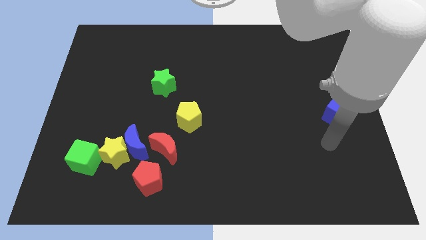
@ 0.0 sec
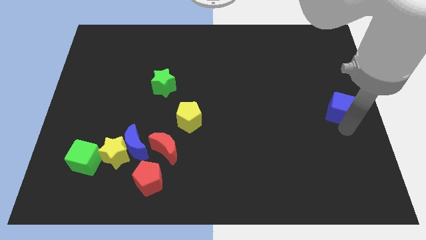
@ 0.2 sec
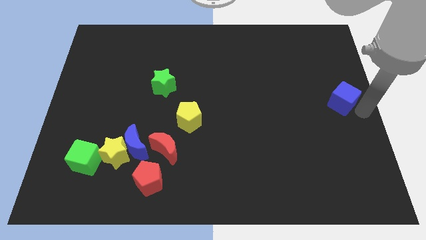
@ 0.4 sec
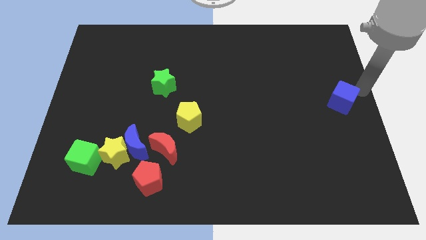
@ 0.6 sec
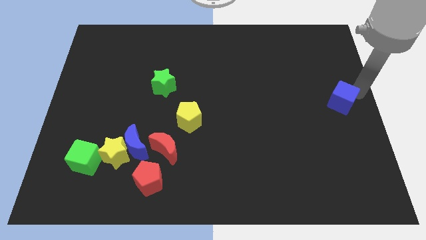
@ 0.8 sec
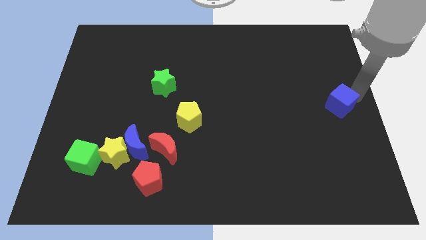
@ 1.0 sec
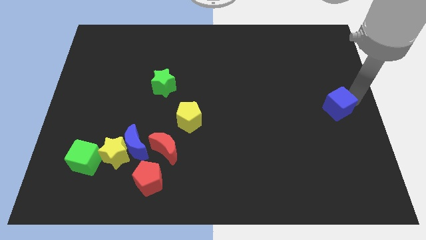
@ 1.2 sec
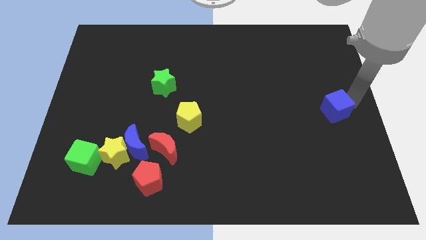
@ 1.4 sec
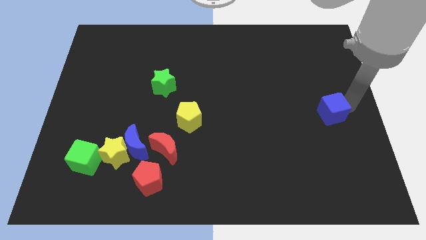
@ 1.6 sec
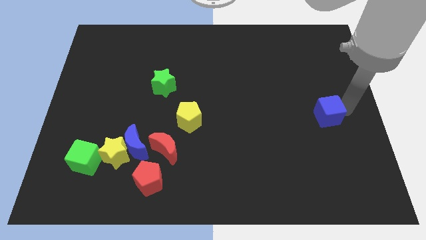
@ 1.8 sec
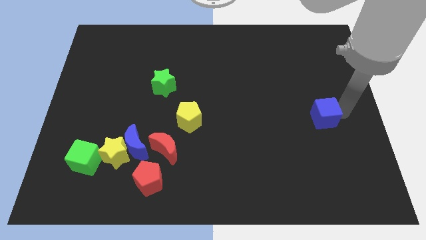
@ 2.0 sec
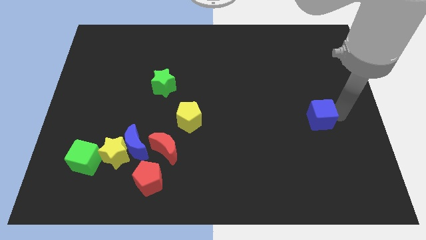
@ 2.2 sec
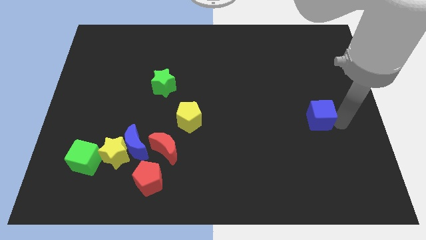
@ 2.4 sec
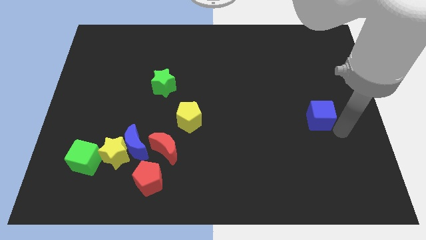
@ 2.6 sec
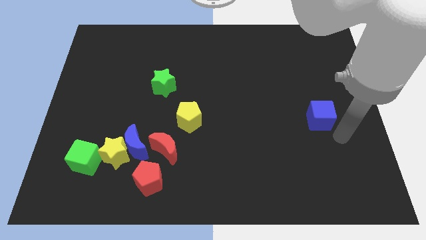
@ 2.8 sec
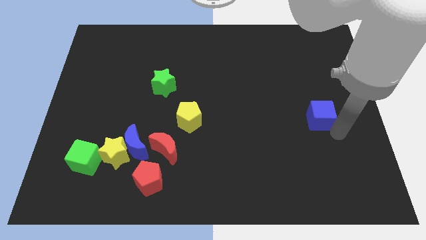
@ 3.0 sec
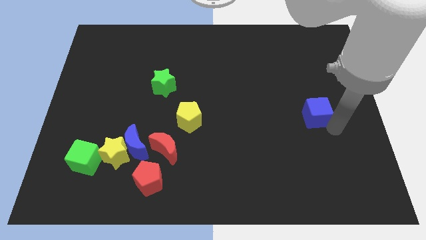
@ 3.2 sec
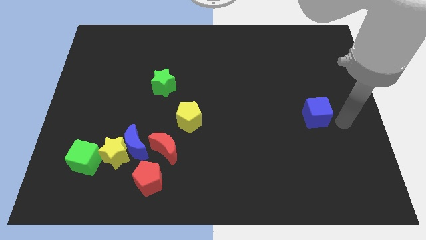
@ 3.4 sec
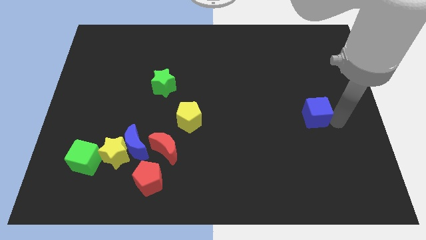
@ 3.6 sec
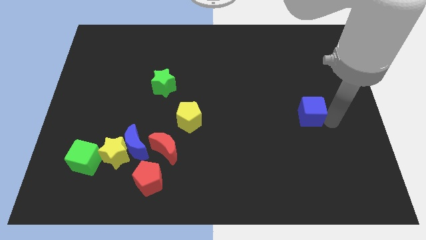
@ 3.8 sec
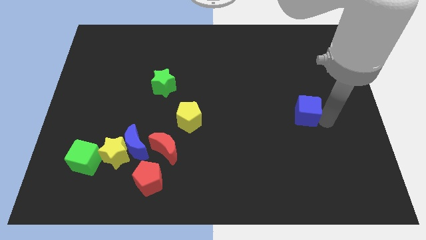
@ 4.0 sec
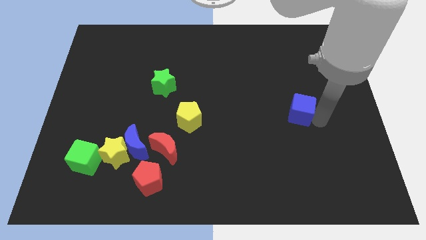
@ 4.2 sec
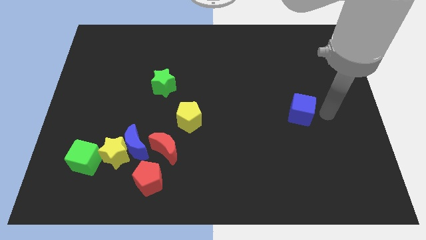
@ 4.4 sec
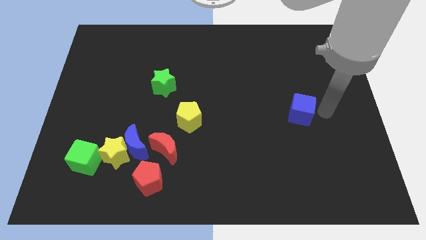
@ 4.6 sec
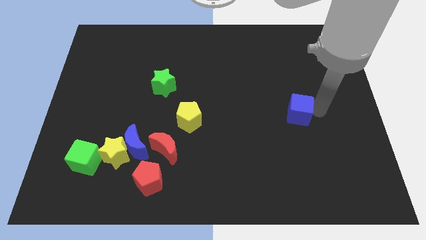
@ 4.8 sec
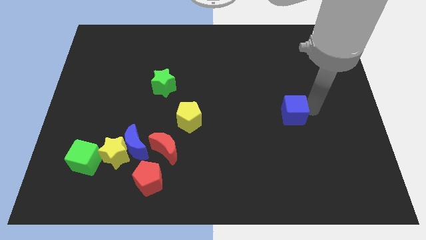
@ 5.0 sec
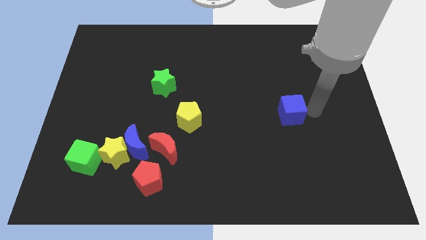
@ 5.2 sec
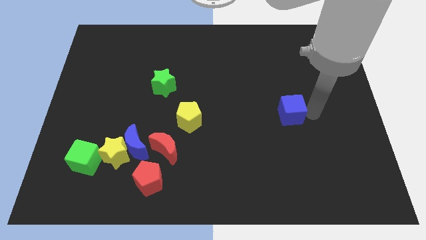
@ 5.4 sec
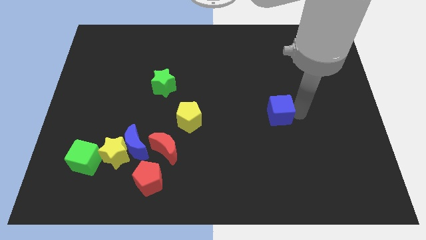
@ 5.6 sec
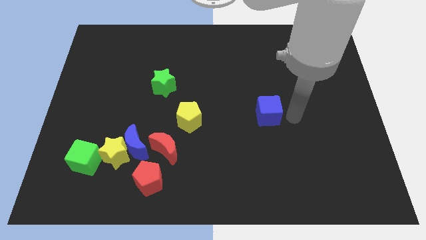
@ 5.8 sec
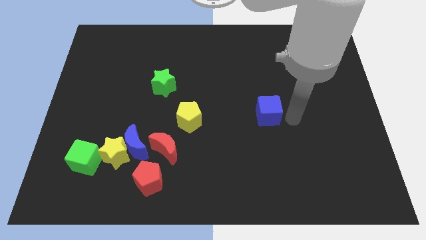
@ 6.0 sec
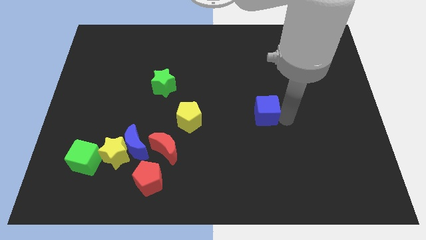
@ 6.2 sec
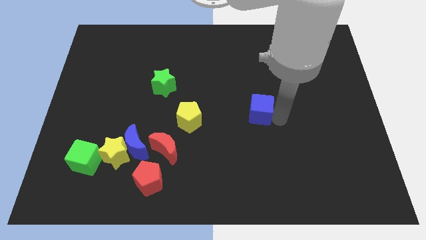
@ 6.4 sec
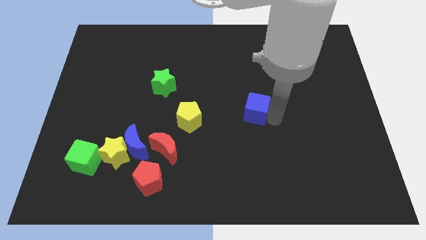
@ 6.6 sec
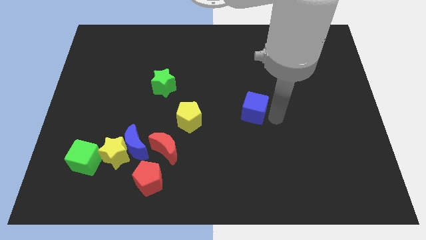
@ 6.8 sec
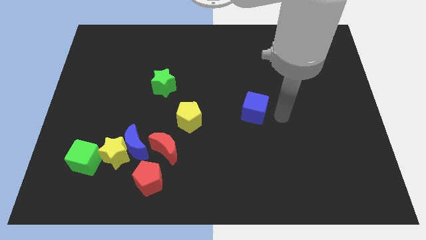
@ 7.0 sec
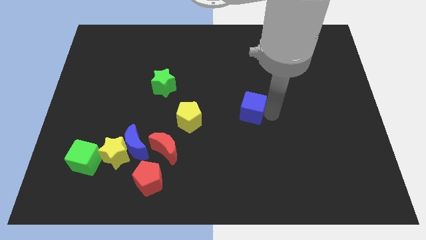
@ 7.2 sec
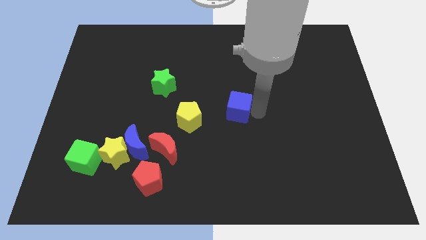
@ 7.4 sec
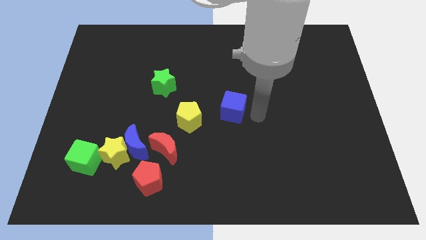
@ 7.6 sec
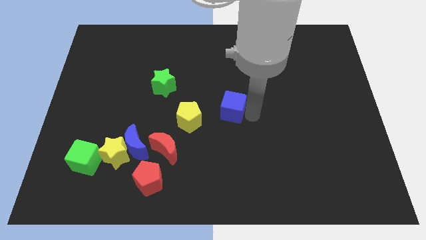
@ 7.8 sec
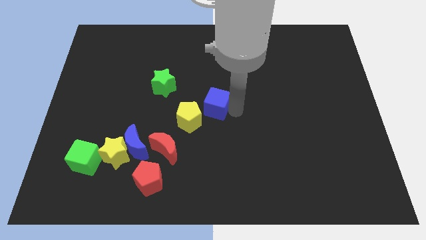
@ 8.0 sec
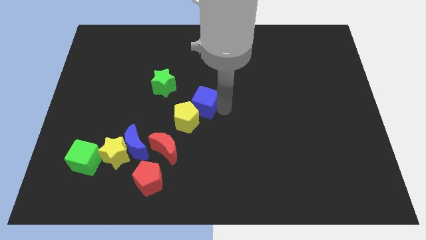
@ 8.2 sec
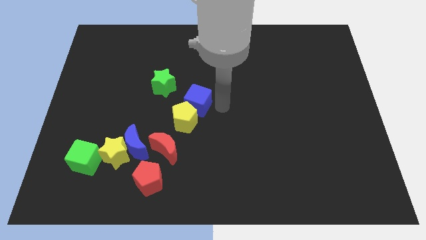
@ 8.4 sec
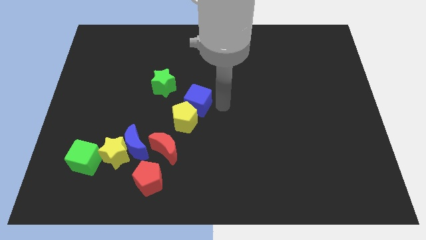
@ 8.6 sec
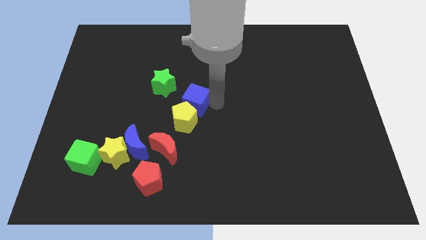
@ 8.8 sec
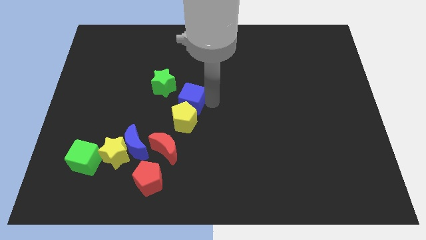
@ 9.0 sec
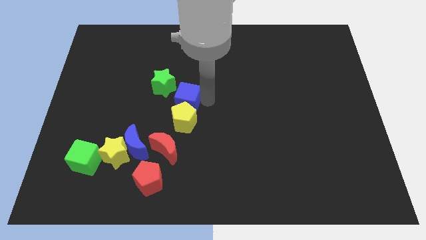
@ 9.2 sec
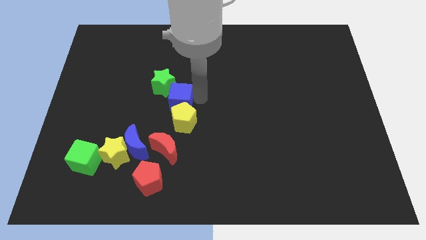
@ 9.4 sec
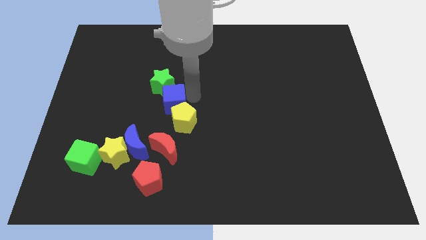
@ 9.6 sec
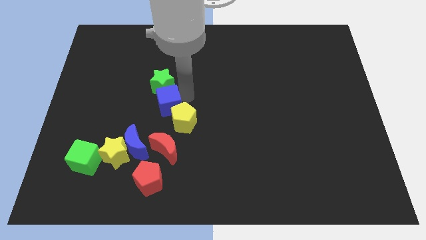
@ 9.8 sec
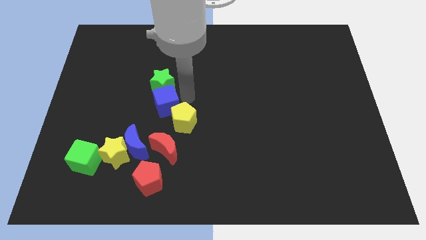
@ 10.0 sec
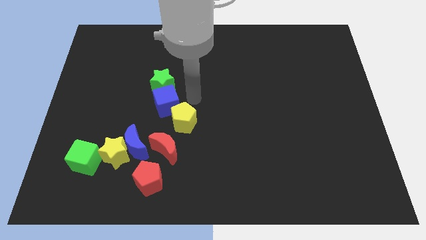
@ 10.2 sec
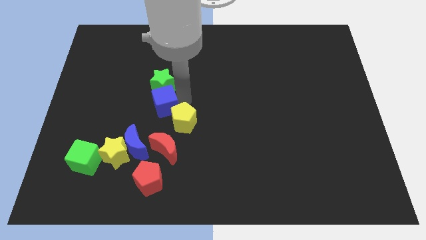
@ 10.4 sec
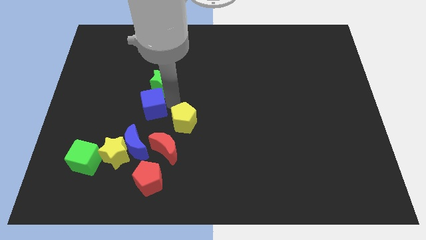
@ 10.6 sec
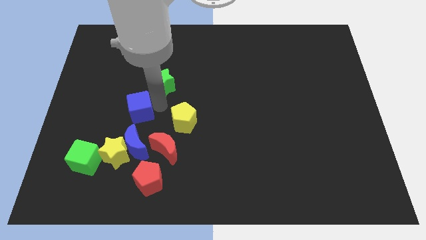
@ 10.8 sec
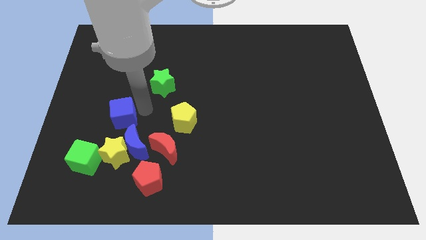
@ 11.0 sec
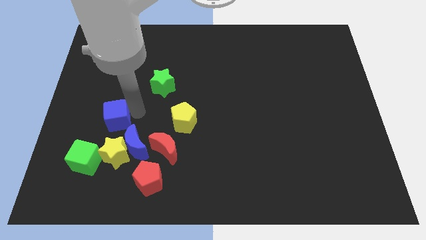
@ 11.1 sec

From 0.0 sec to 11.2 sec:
put the blue cube above the green cube
